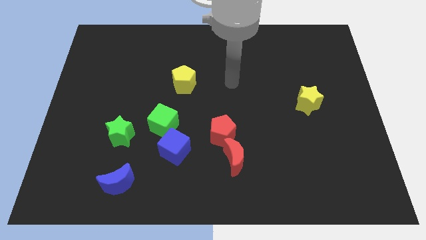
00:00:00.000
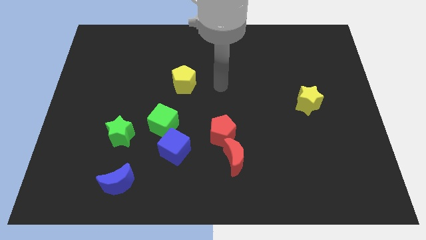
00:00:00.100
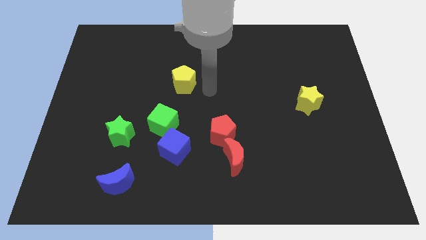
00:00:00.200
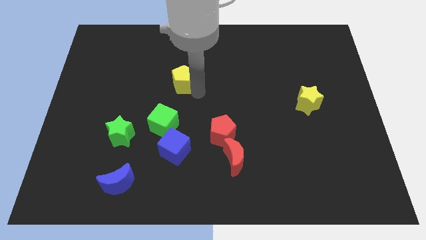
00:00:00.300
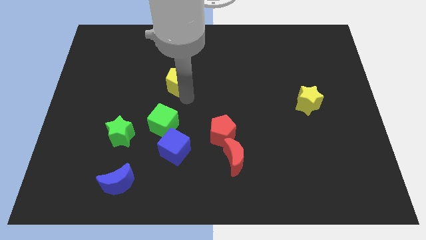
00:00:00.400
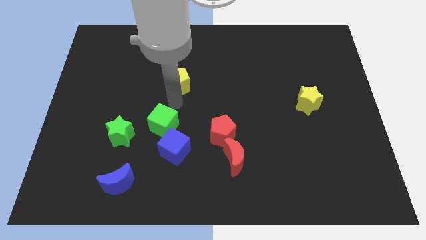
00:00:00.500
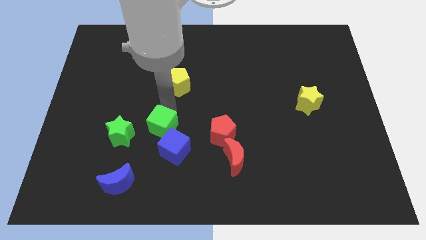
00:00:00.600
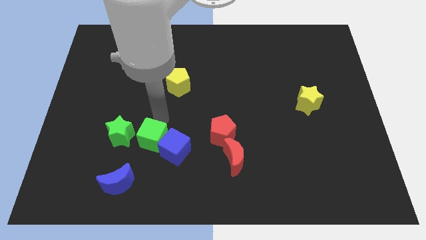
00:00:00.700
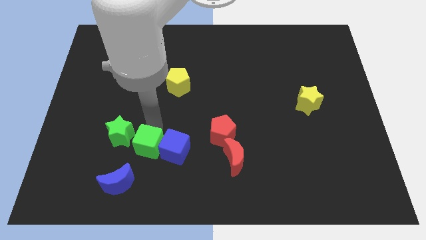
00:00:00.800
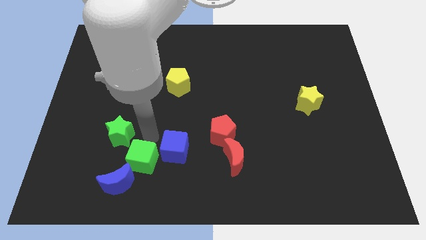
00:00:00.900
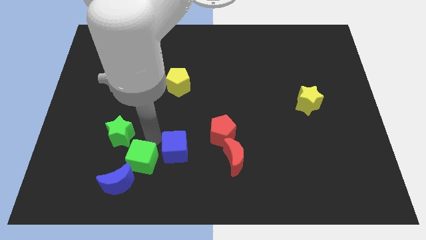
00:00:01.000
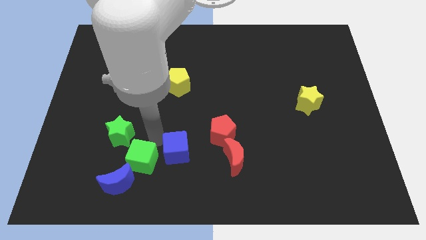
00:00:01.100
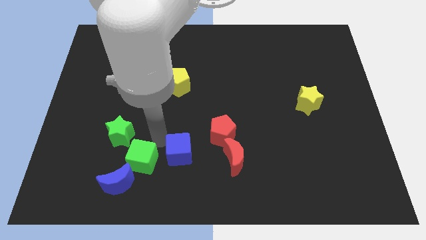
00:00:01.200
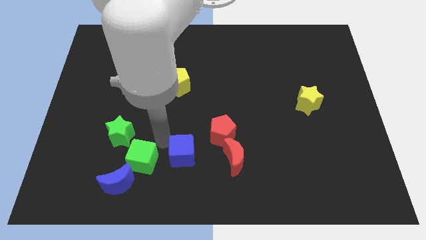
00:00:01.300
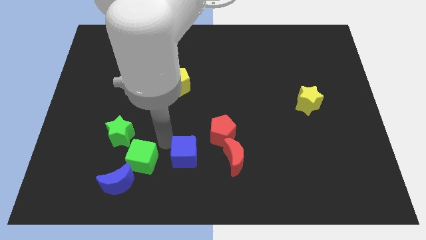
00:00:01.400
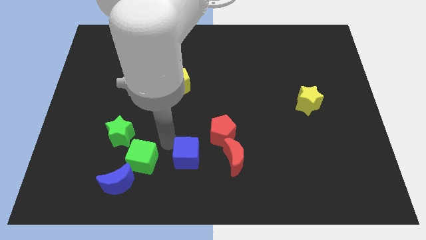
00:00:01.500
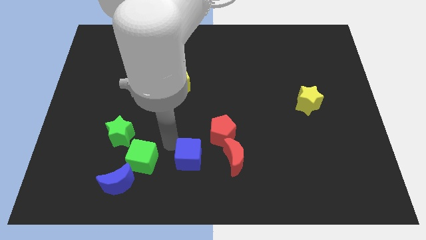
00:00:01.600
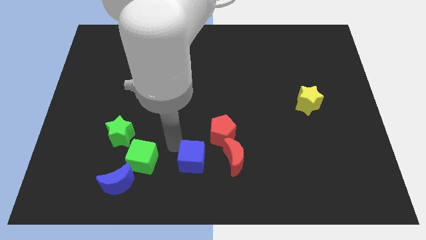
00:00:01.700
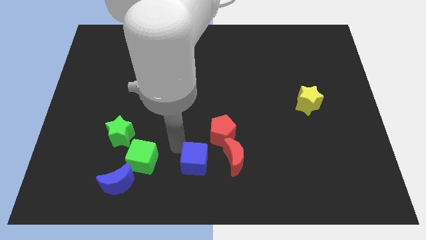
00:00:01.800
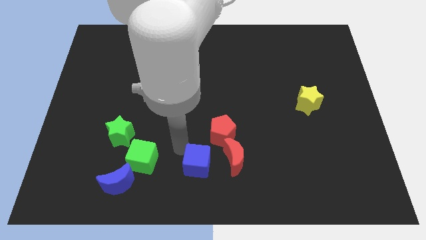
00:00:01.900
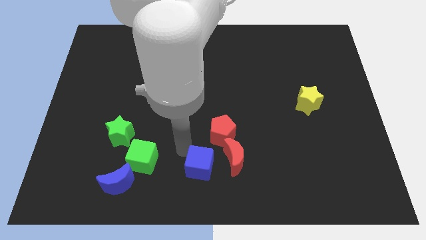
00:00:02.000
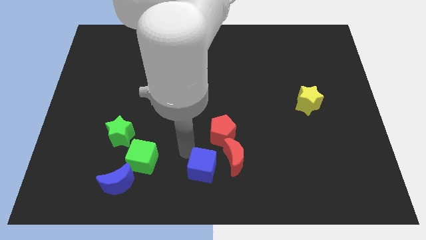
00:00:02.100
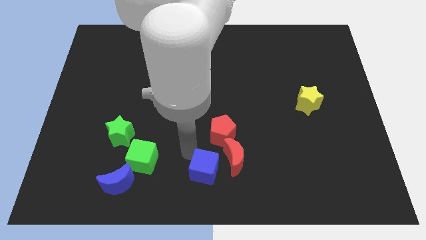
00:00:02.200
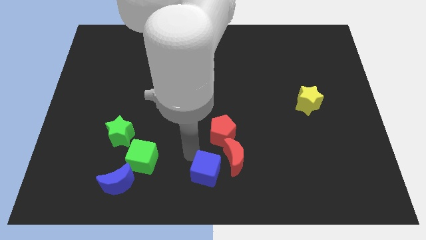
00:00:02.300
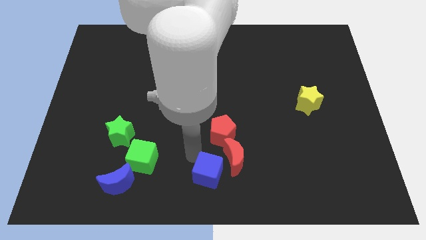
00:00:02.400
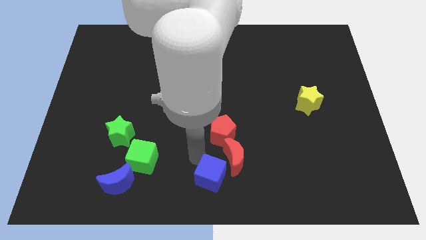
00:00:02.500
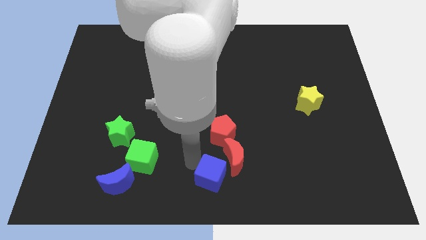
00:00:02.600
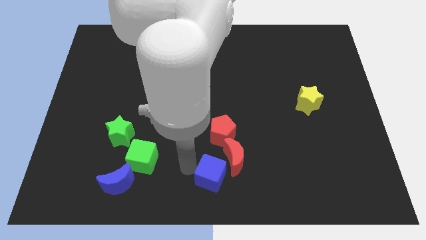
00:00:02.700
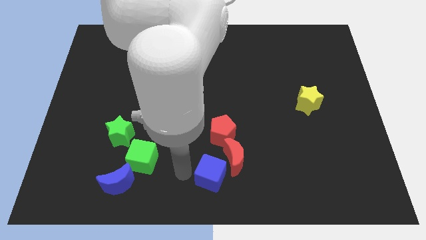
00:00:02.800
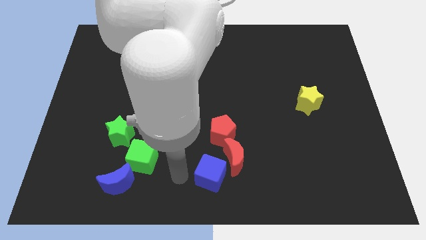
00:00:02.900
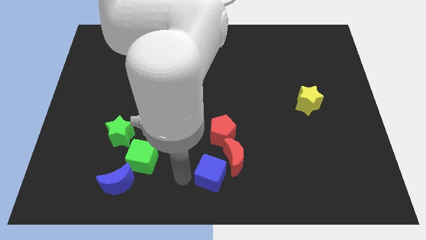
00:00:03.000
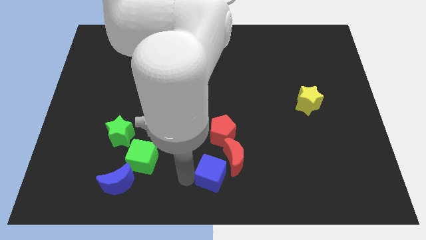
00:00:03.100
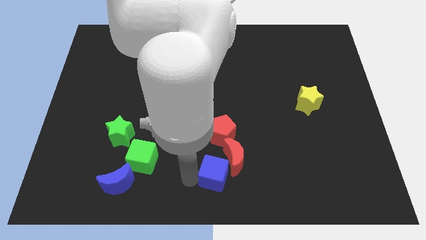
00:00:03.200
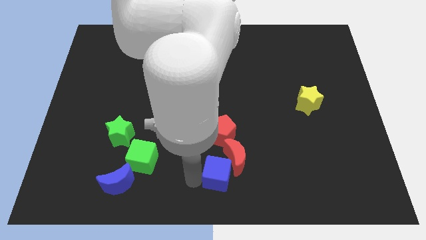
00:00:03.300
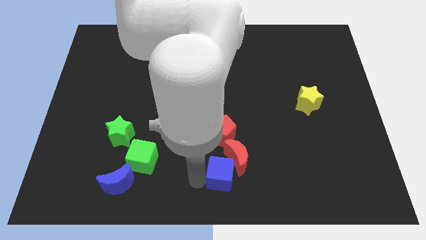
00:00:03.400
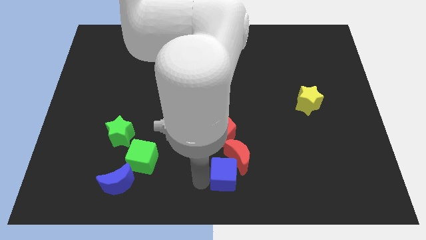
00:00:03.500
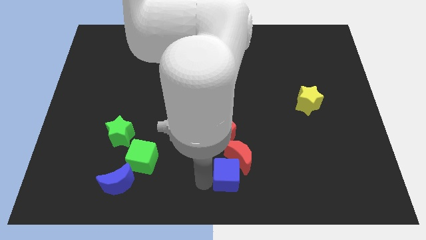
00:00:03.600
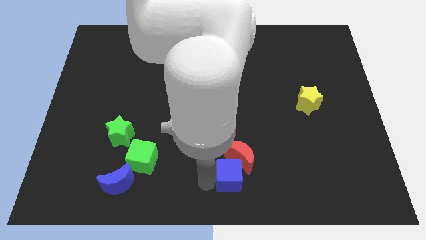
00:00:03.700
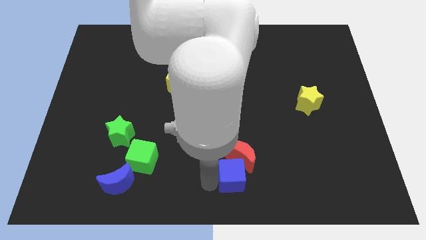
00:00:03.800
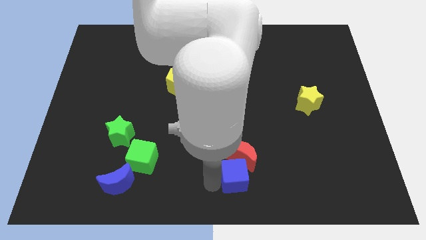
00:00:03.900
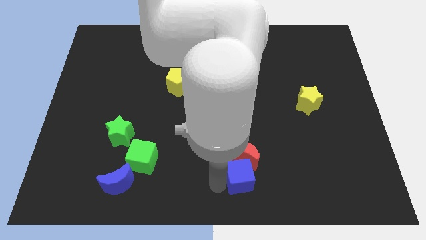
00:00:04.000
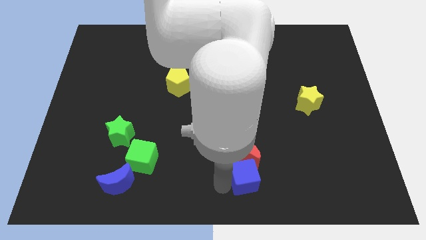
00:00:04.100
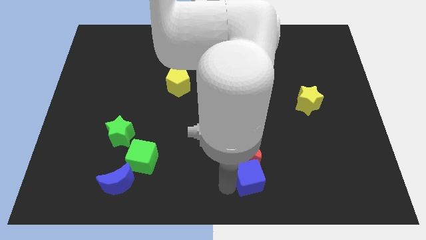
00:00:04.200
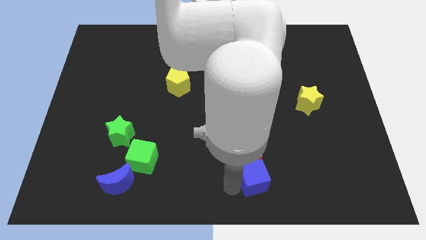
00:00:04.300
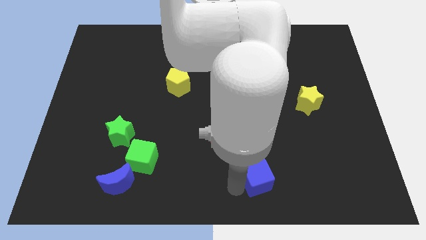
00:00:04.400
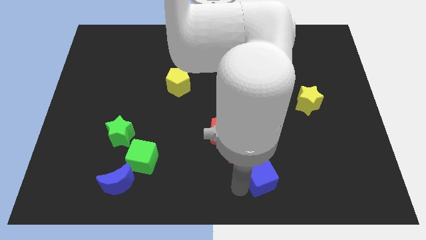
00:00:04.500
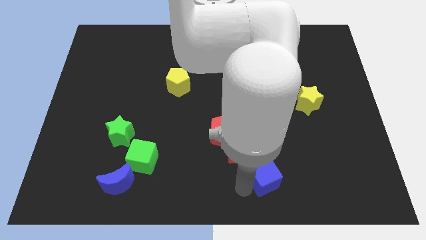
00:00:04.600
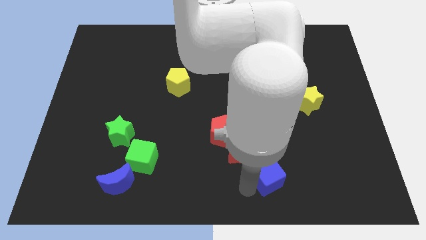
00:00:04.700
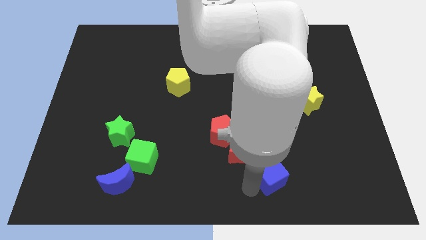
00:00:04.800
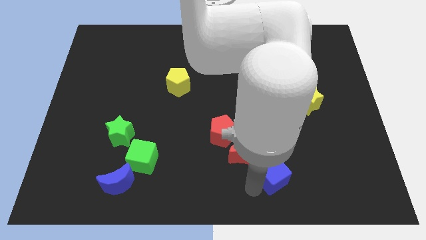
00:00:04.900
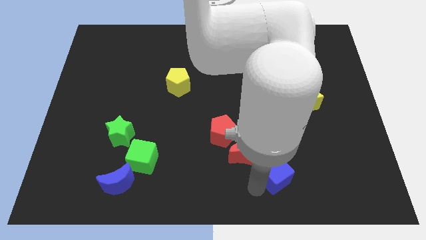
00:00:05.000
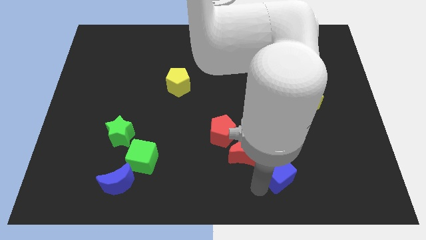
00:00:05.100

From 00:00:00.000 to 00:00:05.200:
slide the blue cube to the right

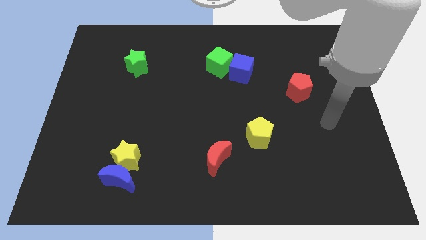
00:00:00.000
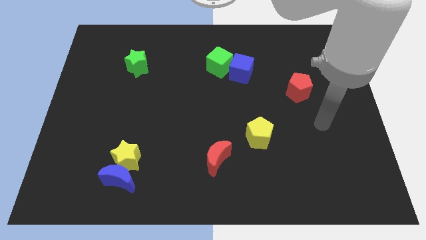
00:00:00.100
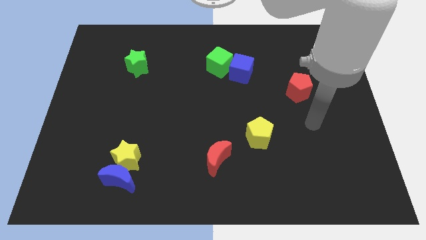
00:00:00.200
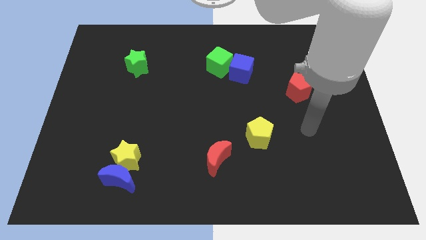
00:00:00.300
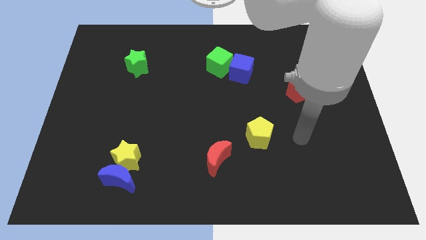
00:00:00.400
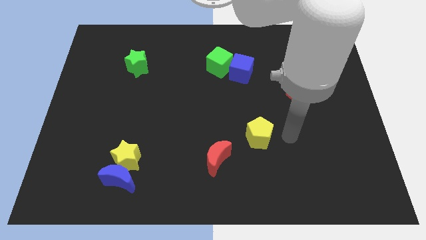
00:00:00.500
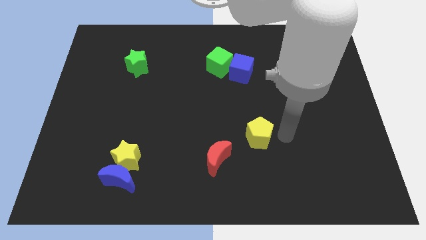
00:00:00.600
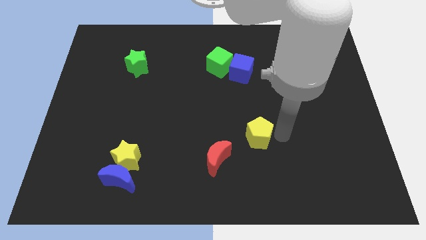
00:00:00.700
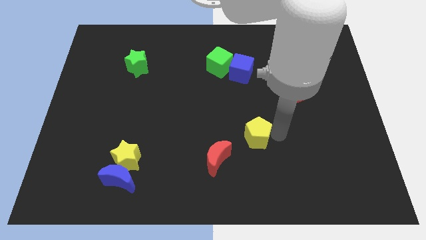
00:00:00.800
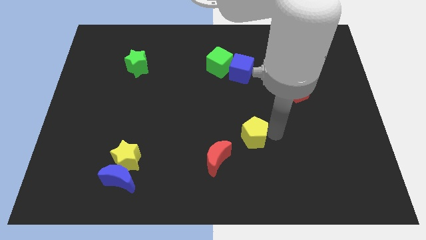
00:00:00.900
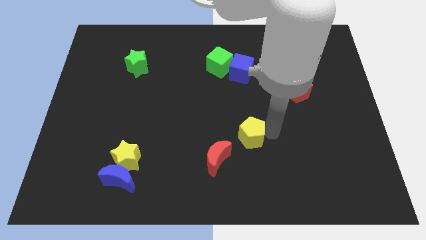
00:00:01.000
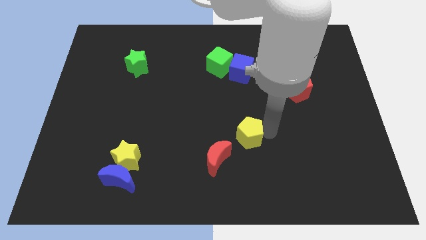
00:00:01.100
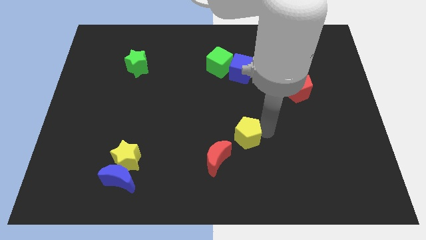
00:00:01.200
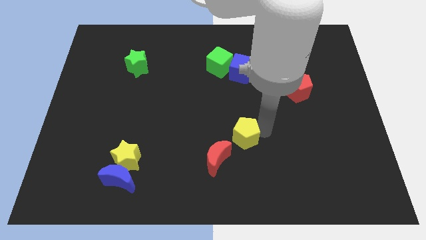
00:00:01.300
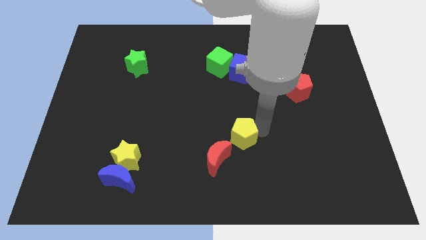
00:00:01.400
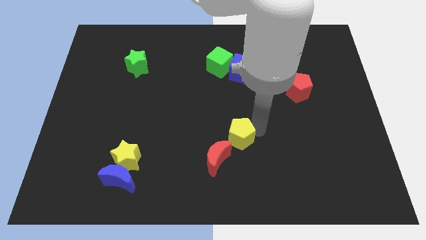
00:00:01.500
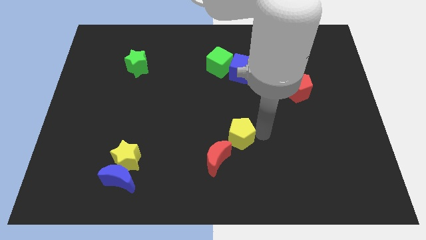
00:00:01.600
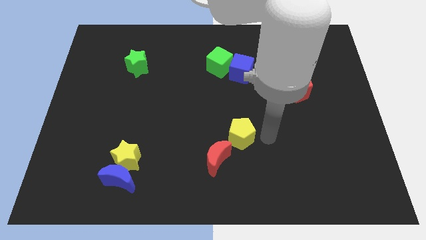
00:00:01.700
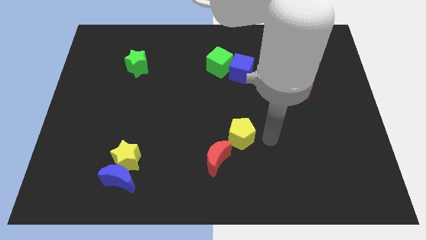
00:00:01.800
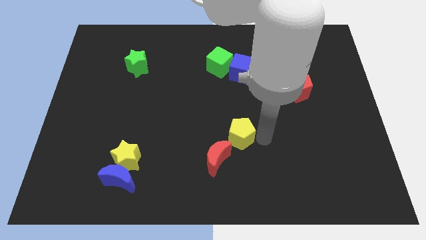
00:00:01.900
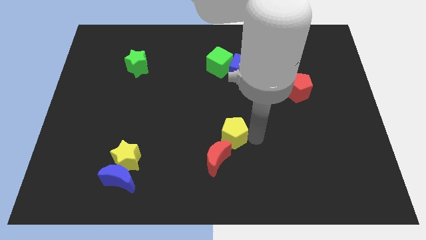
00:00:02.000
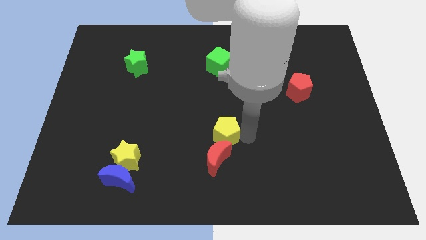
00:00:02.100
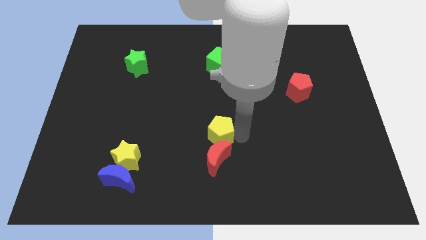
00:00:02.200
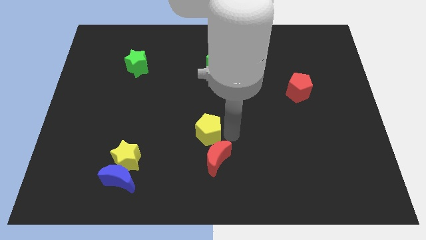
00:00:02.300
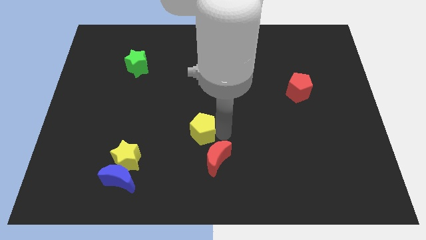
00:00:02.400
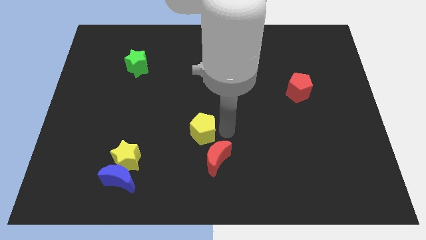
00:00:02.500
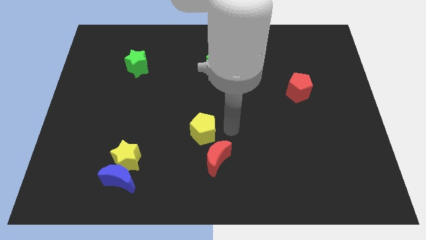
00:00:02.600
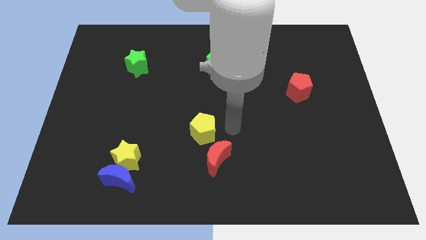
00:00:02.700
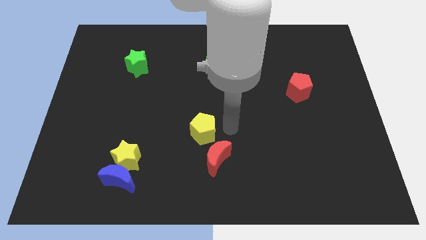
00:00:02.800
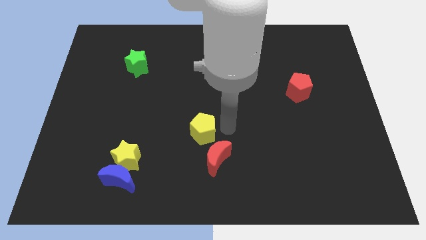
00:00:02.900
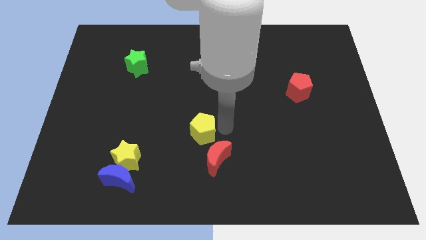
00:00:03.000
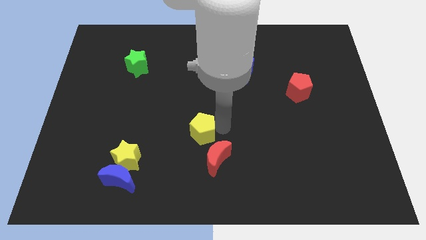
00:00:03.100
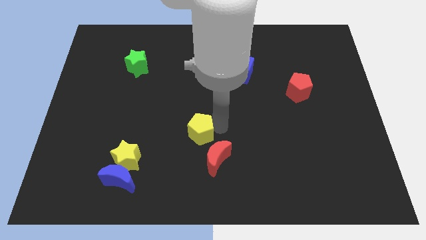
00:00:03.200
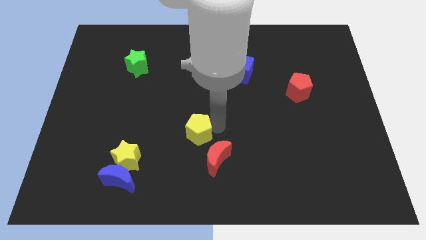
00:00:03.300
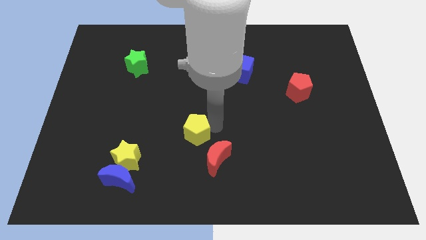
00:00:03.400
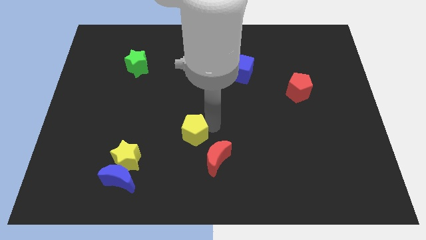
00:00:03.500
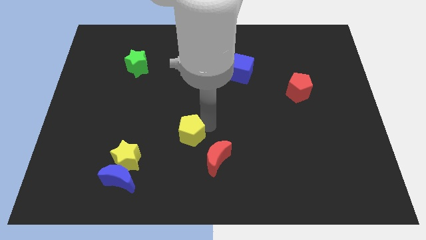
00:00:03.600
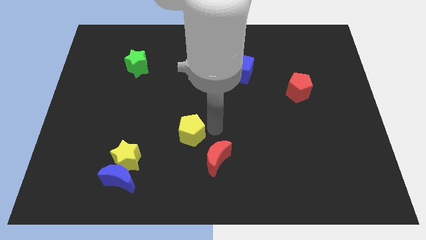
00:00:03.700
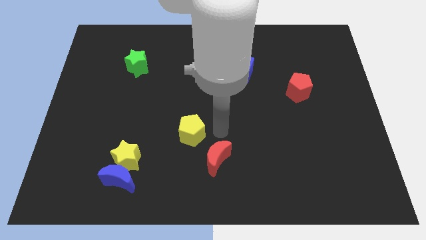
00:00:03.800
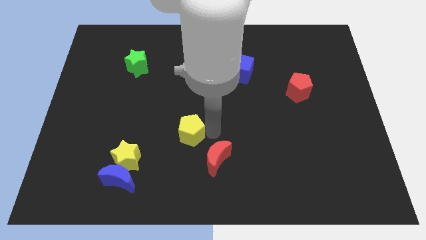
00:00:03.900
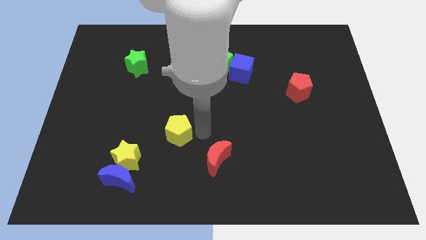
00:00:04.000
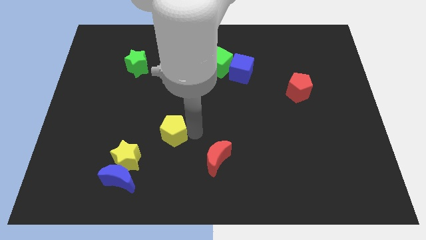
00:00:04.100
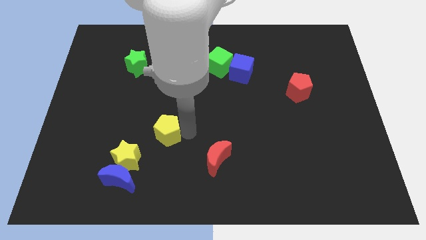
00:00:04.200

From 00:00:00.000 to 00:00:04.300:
move the yellow pentagon to the left
